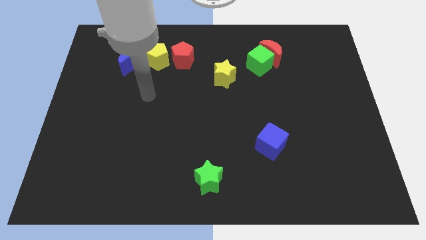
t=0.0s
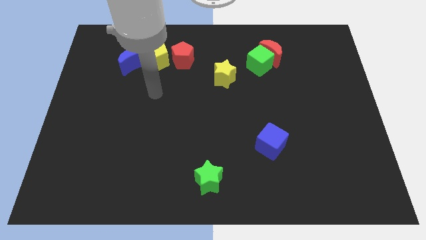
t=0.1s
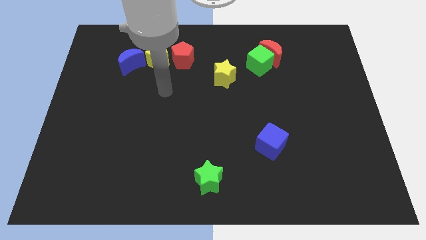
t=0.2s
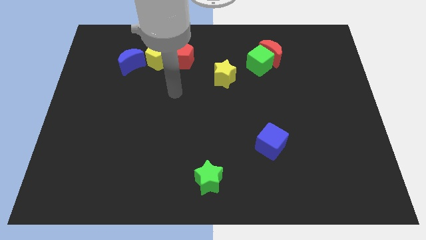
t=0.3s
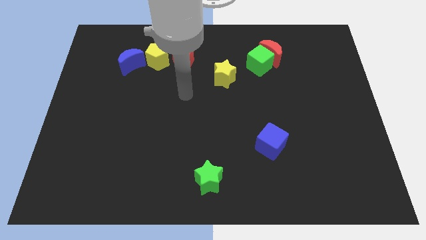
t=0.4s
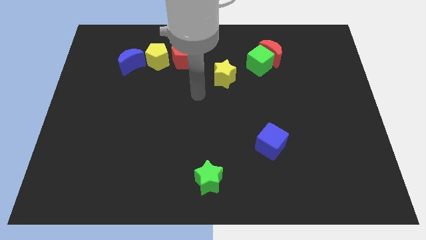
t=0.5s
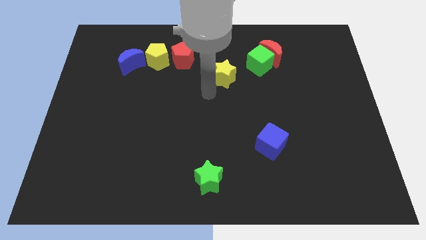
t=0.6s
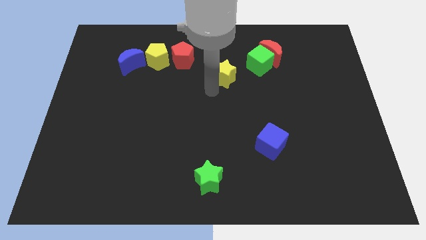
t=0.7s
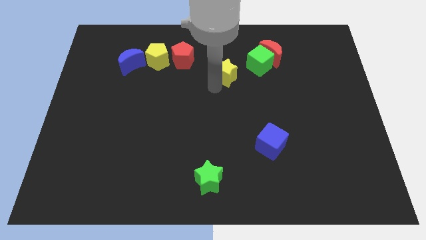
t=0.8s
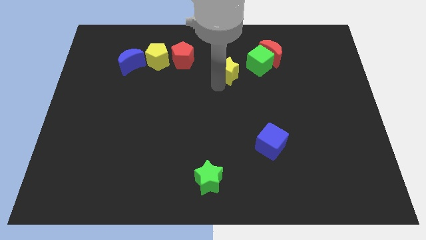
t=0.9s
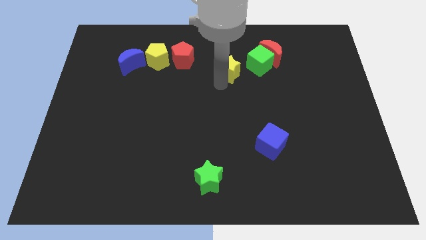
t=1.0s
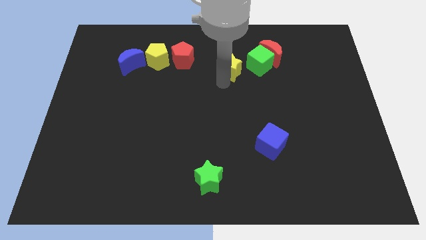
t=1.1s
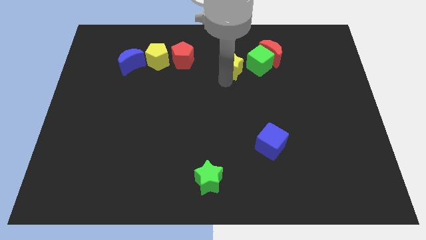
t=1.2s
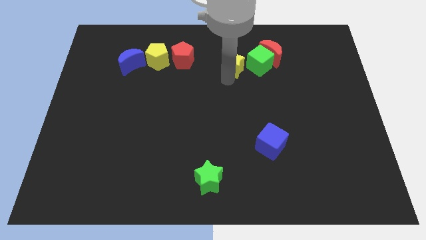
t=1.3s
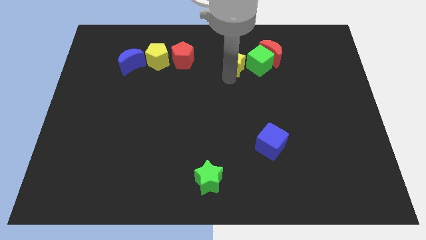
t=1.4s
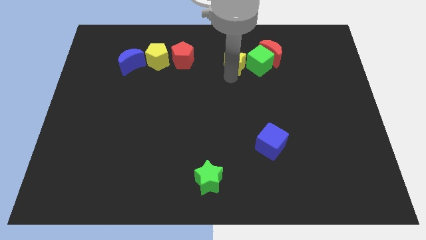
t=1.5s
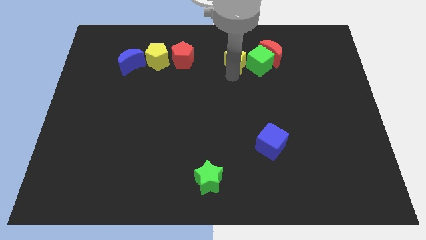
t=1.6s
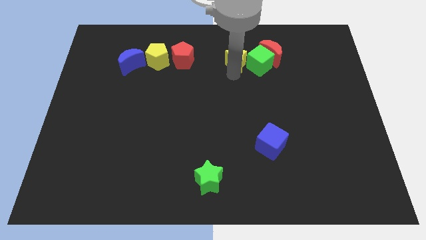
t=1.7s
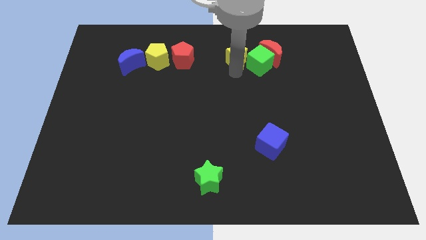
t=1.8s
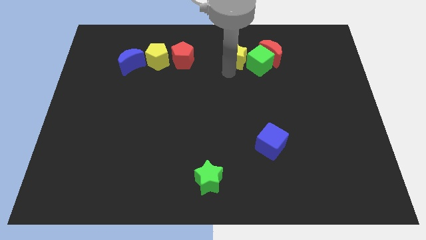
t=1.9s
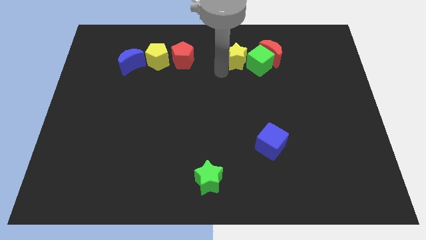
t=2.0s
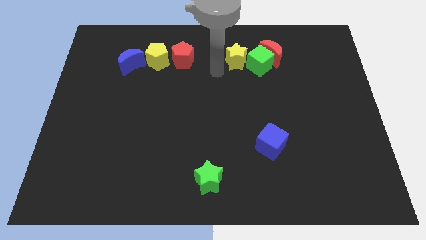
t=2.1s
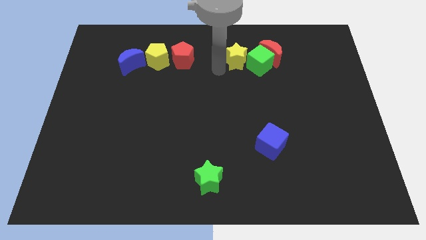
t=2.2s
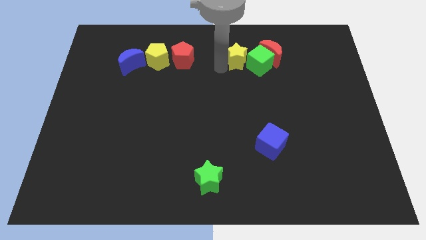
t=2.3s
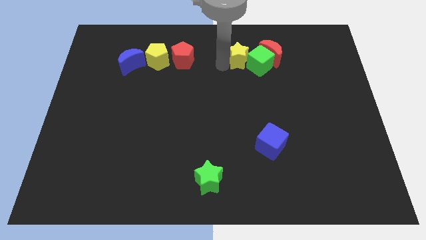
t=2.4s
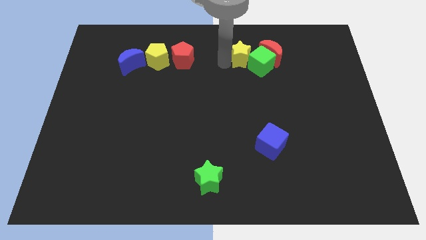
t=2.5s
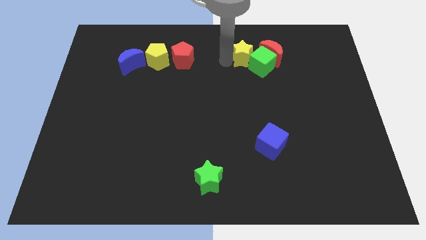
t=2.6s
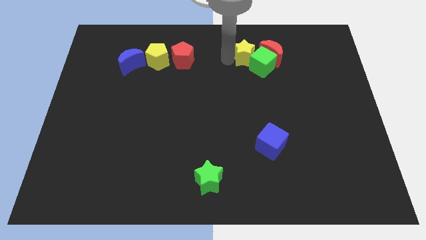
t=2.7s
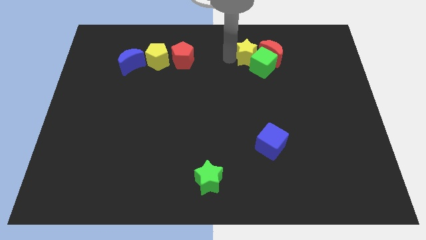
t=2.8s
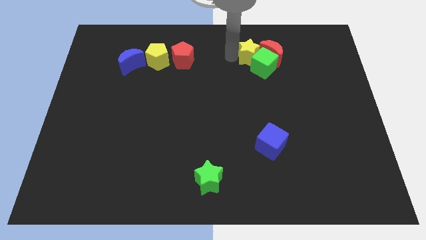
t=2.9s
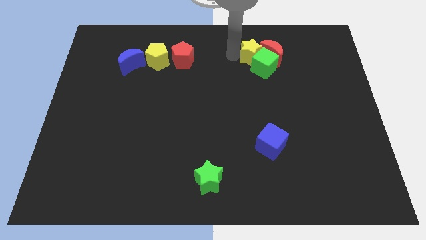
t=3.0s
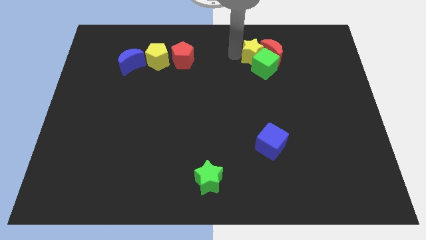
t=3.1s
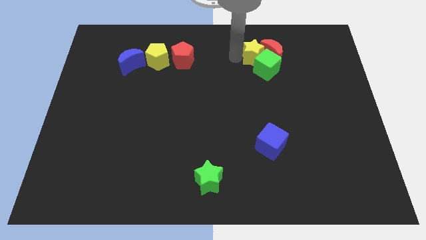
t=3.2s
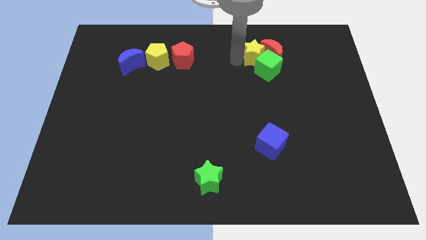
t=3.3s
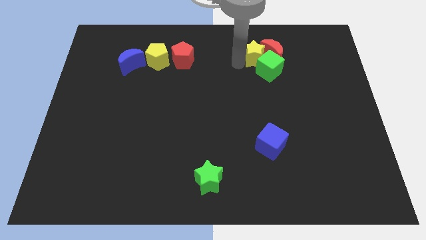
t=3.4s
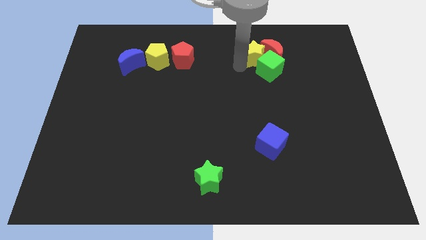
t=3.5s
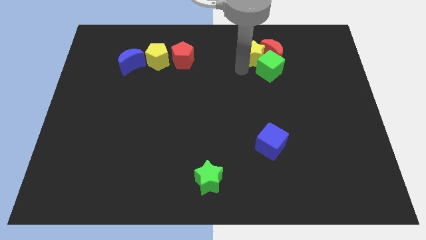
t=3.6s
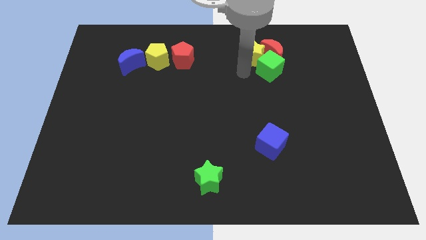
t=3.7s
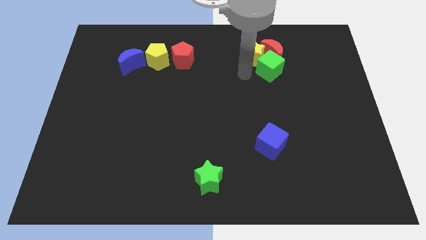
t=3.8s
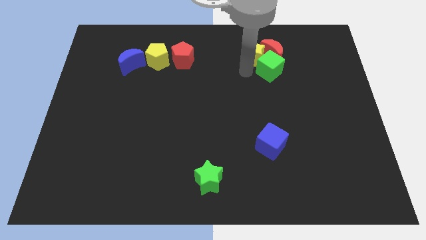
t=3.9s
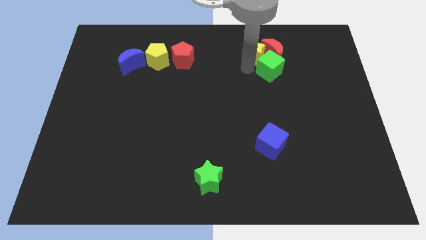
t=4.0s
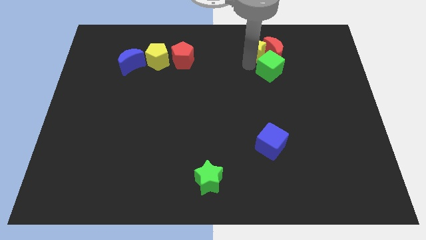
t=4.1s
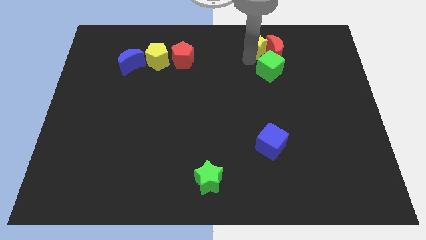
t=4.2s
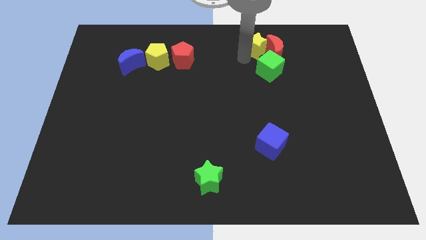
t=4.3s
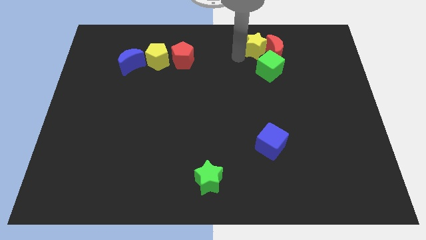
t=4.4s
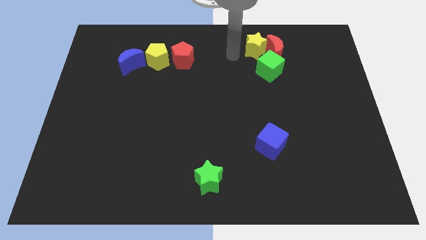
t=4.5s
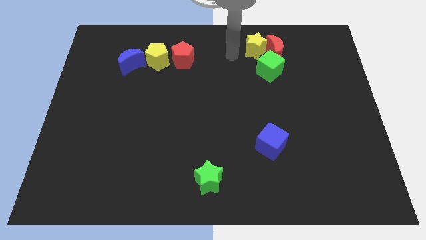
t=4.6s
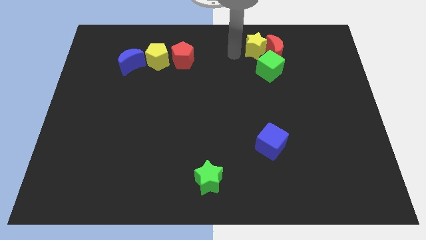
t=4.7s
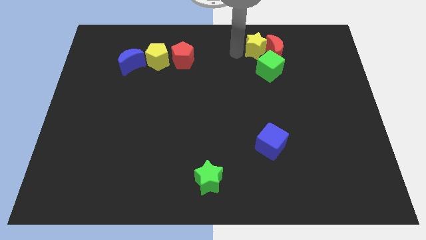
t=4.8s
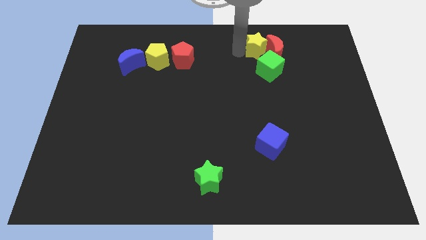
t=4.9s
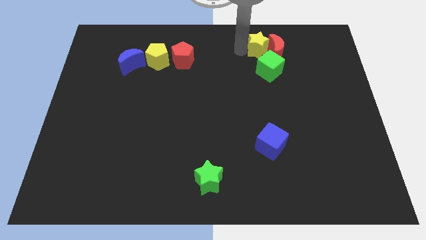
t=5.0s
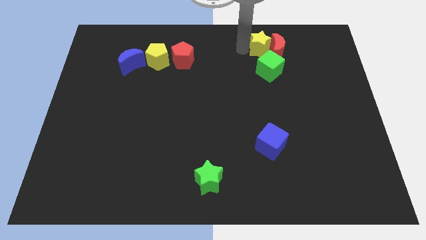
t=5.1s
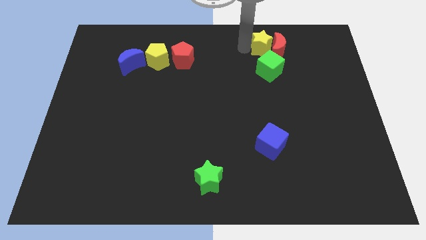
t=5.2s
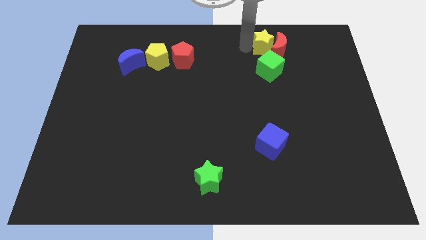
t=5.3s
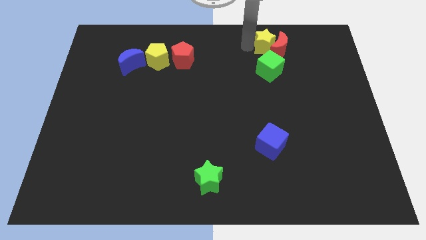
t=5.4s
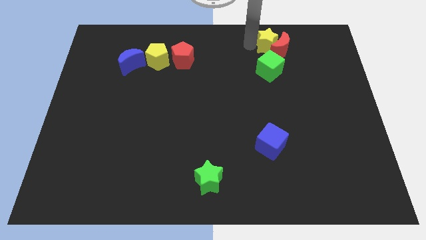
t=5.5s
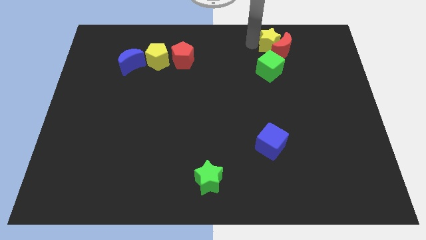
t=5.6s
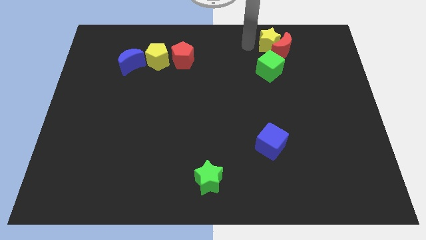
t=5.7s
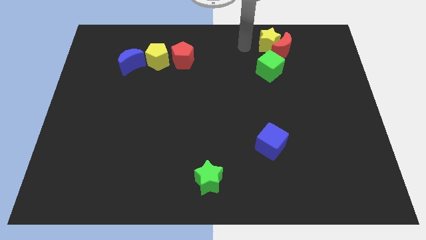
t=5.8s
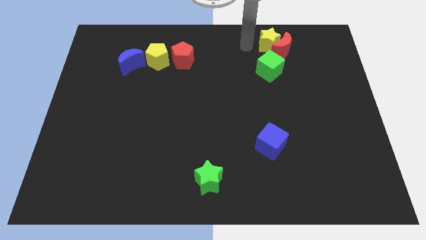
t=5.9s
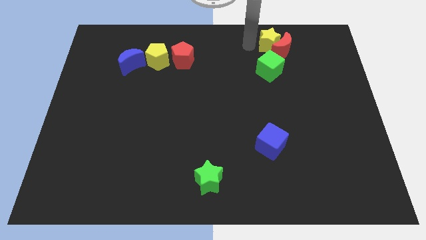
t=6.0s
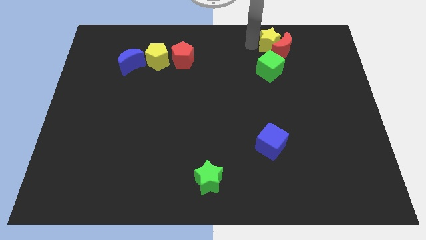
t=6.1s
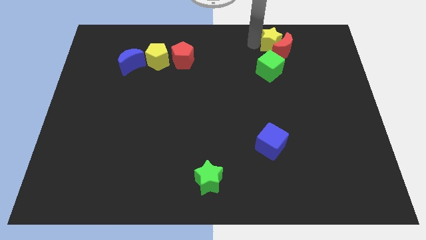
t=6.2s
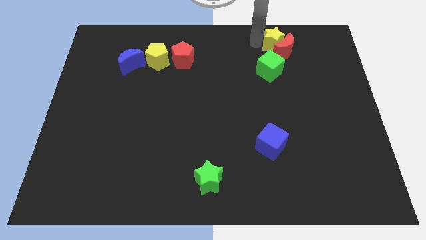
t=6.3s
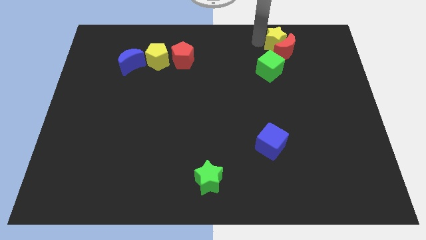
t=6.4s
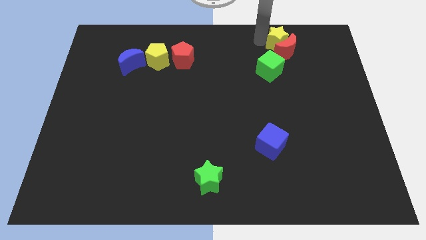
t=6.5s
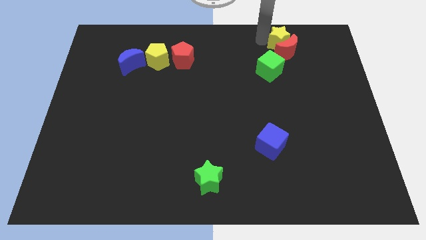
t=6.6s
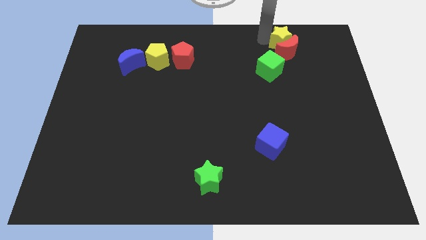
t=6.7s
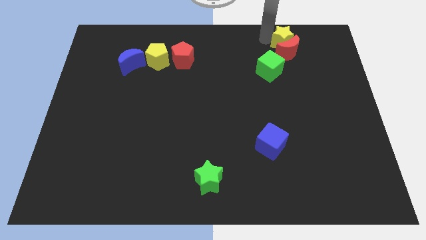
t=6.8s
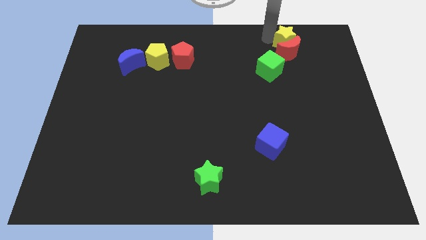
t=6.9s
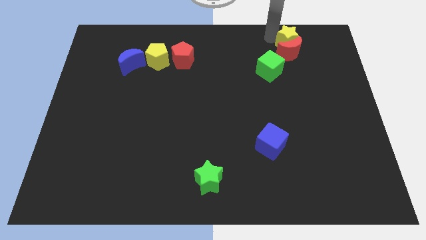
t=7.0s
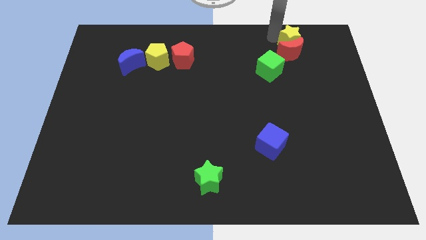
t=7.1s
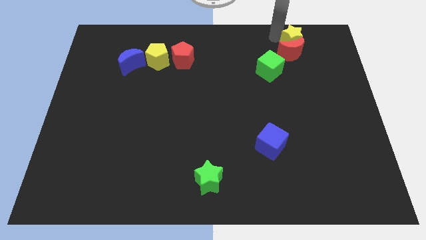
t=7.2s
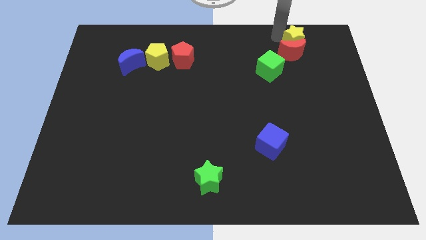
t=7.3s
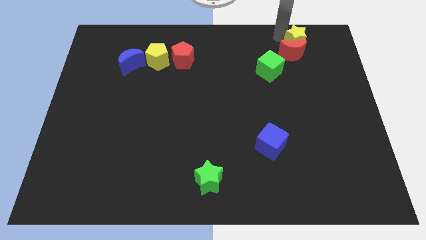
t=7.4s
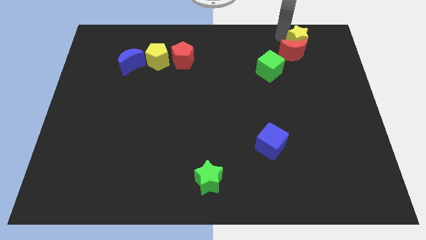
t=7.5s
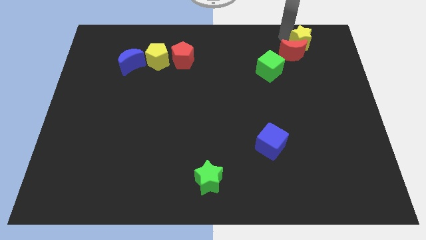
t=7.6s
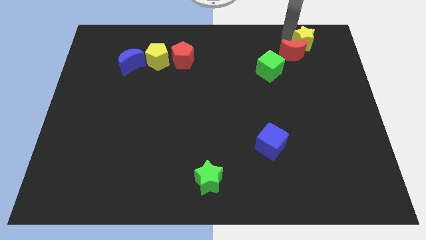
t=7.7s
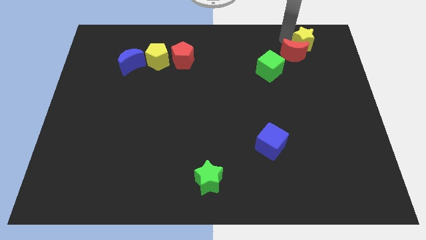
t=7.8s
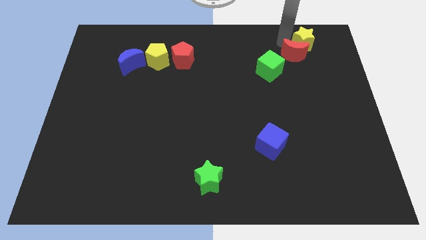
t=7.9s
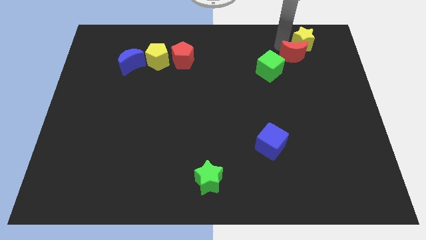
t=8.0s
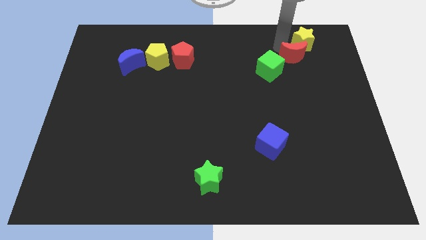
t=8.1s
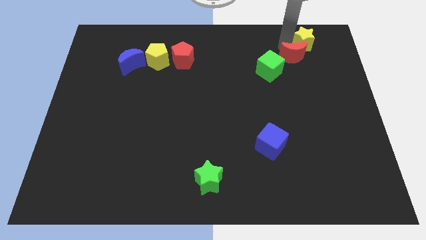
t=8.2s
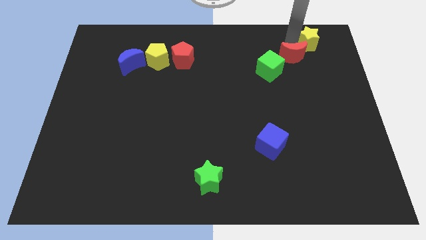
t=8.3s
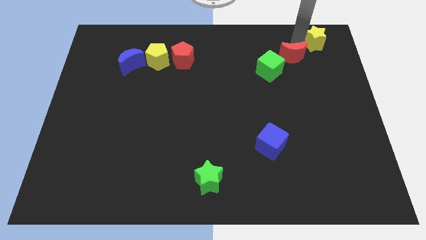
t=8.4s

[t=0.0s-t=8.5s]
push the yellow star to the top right corner
